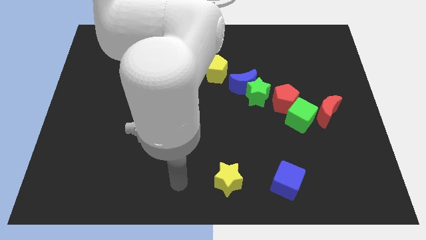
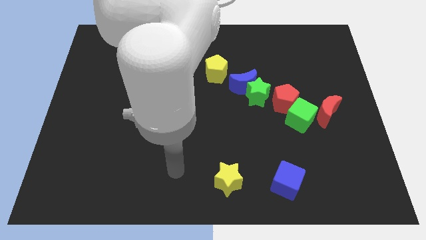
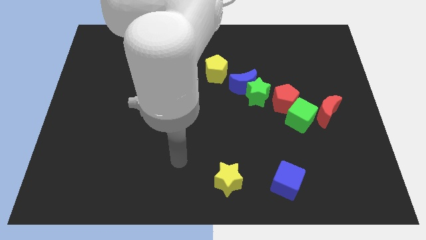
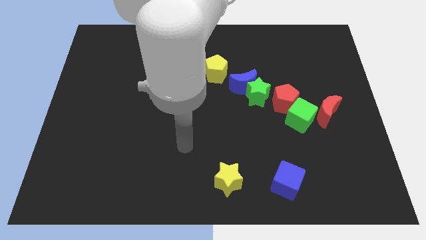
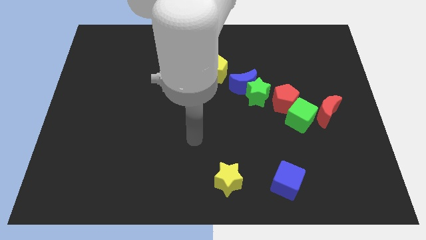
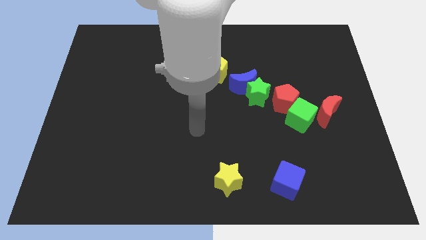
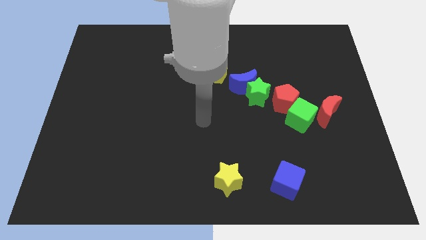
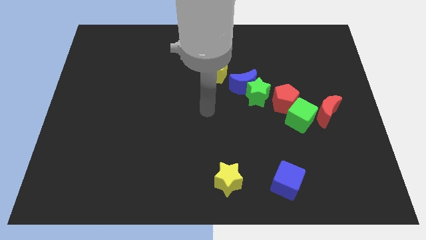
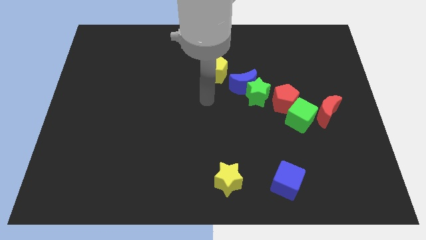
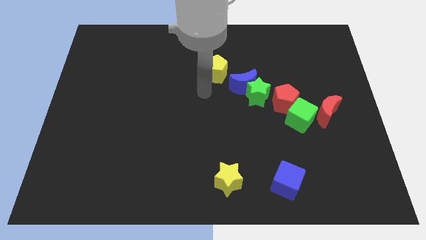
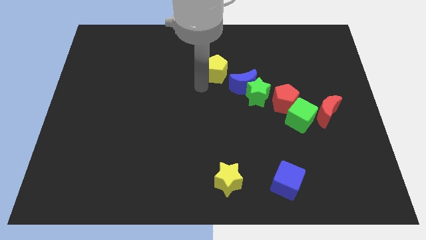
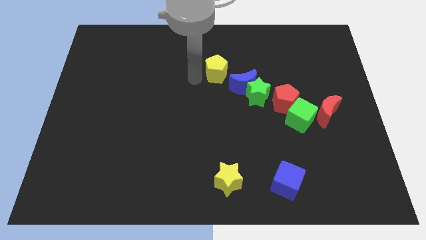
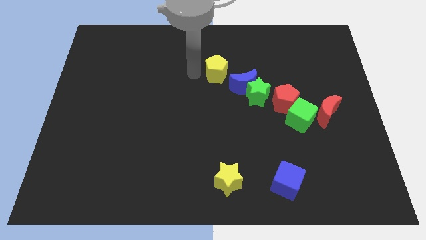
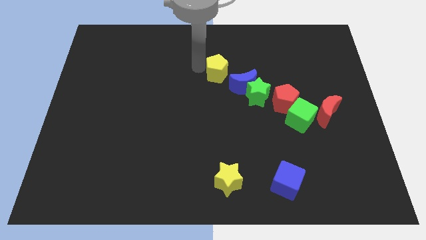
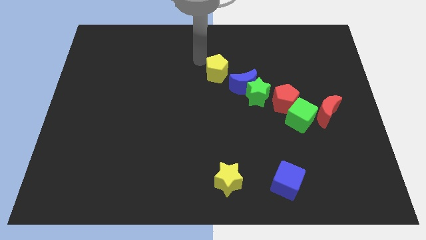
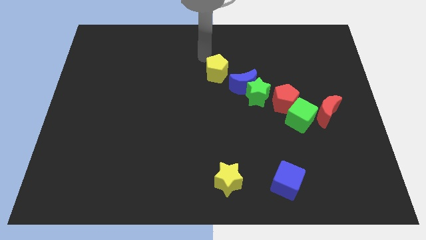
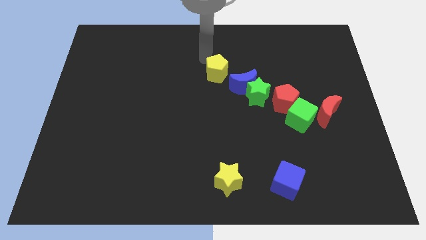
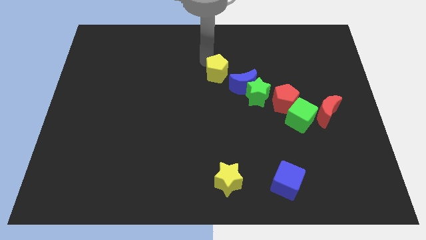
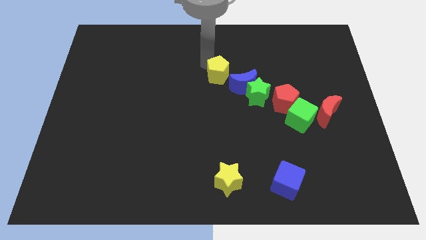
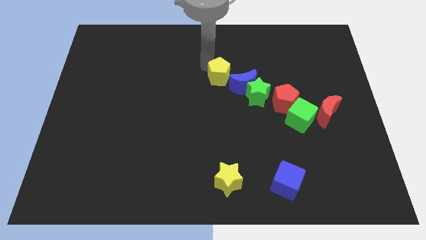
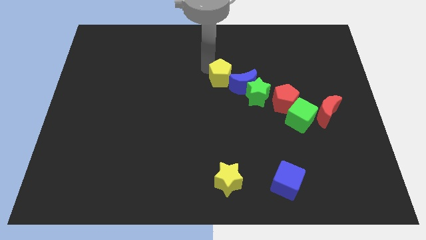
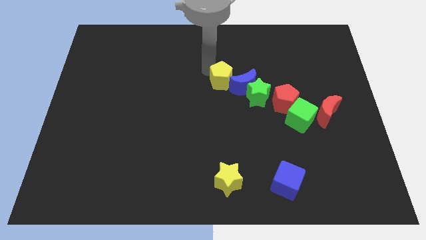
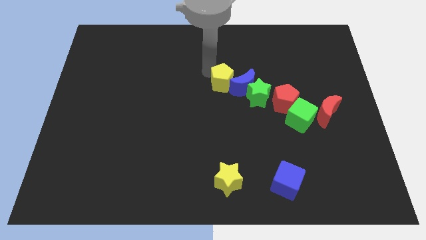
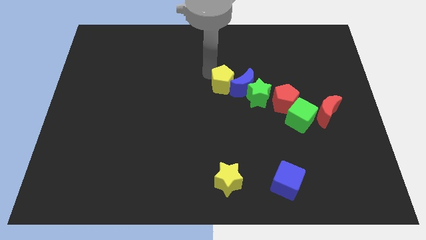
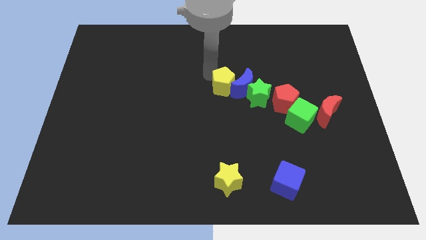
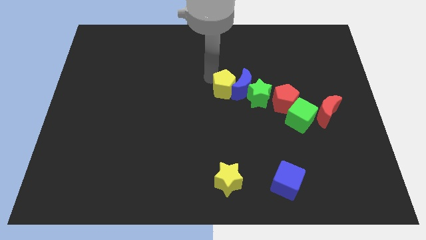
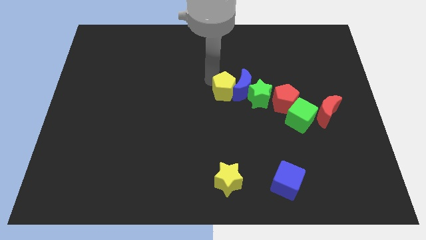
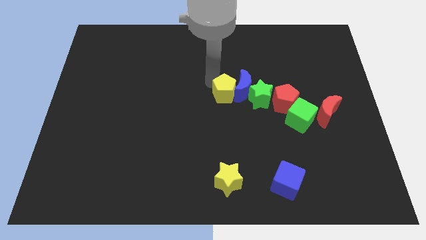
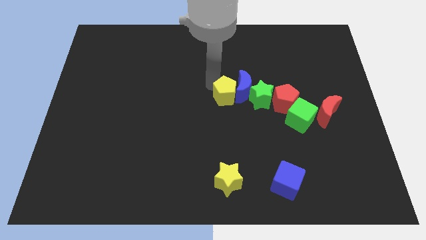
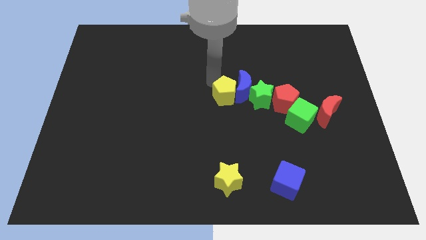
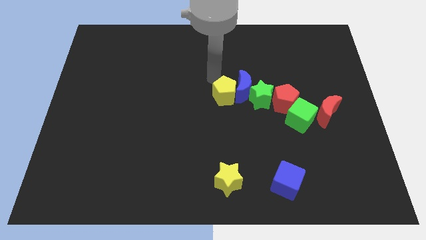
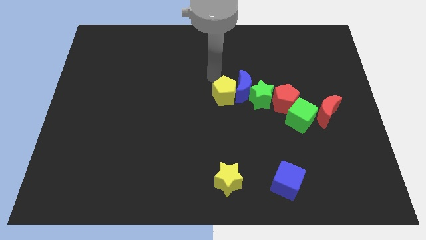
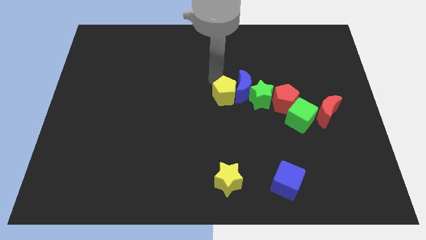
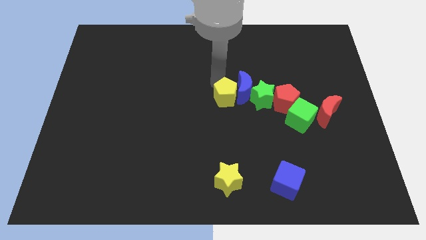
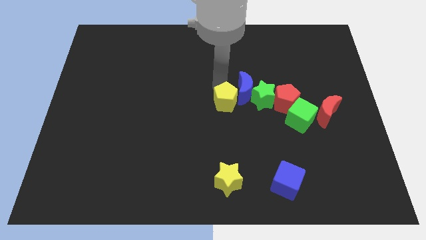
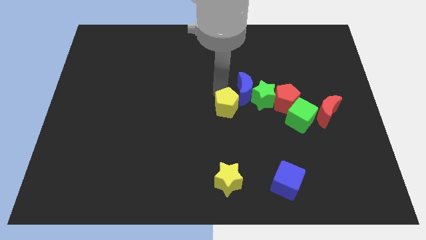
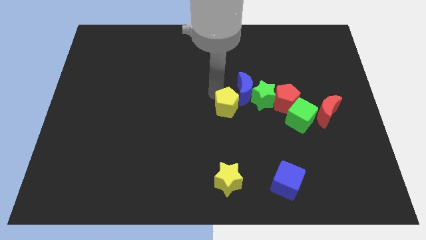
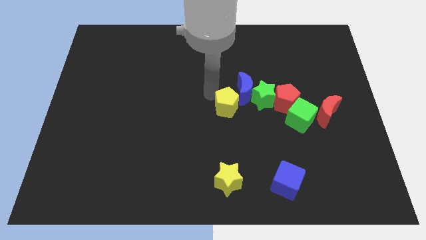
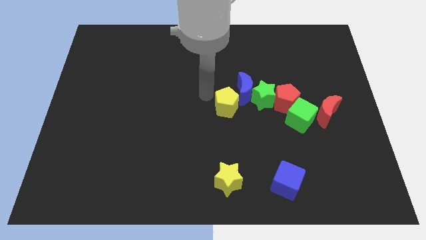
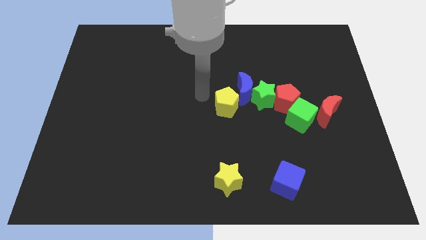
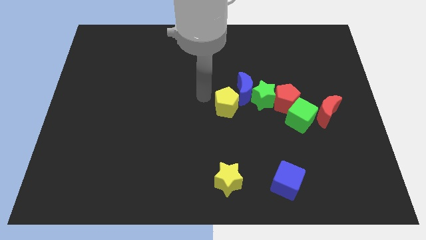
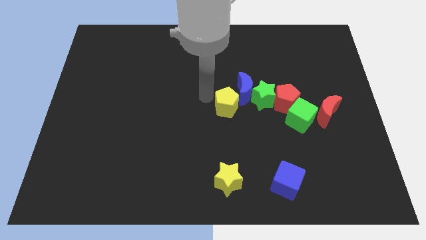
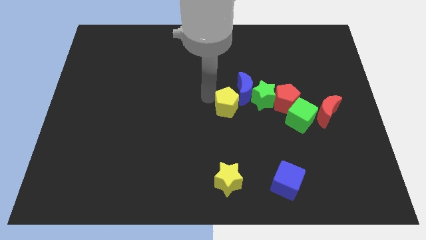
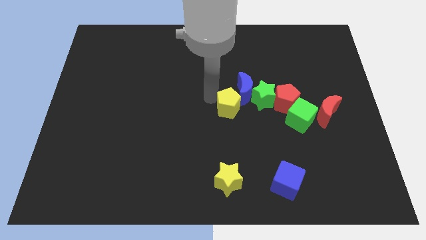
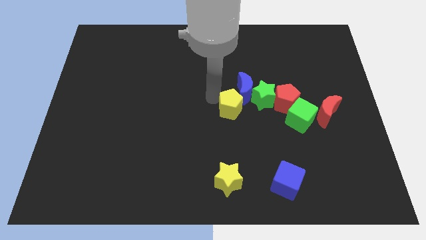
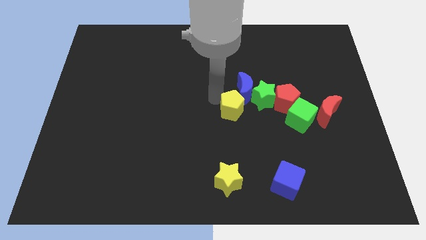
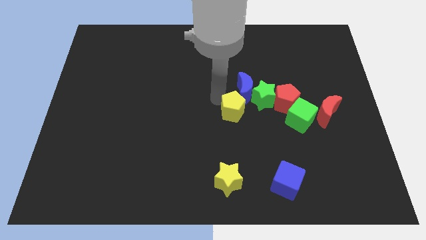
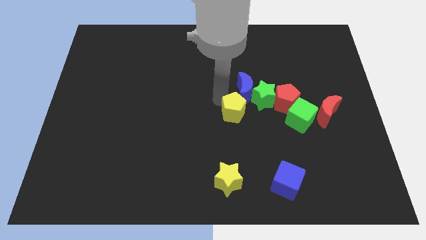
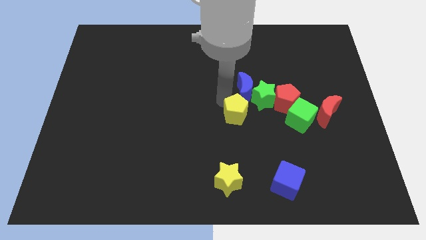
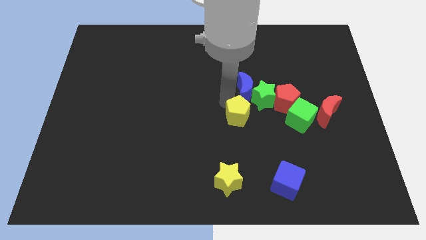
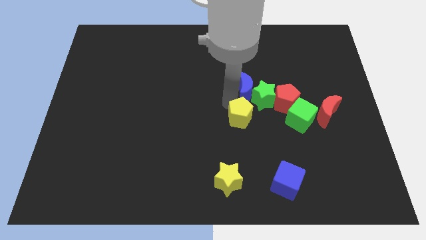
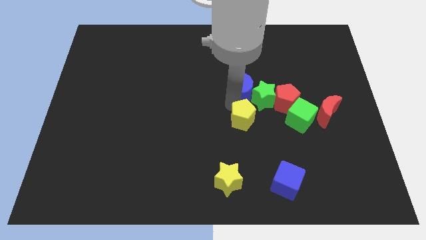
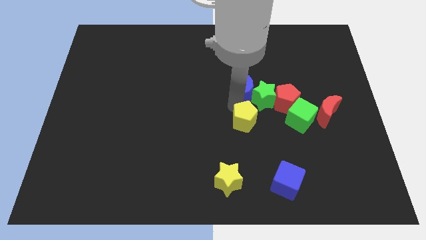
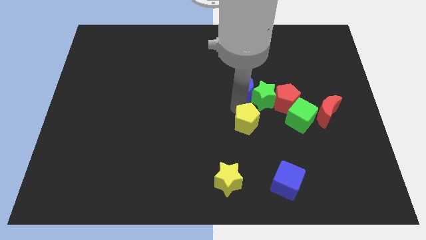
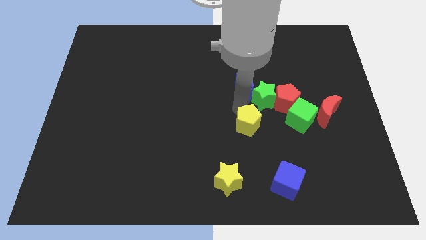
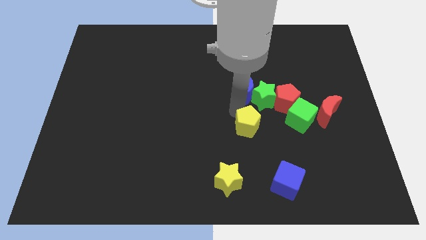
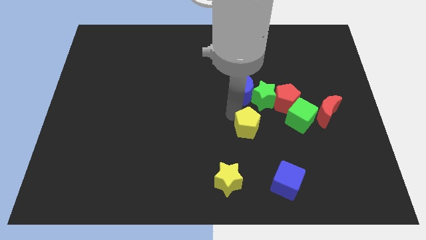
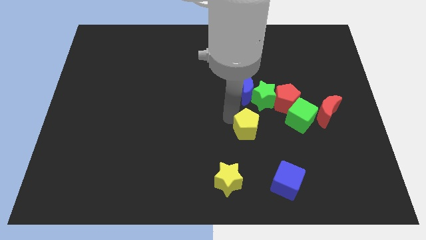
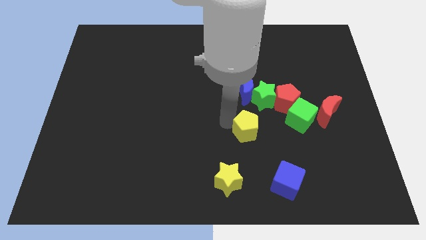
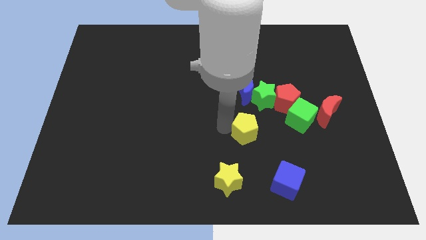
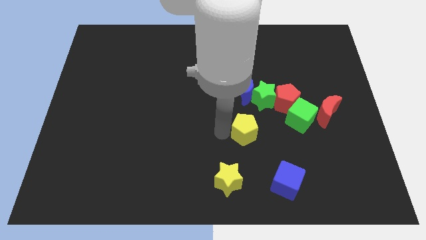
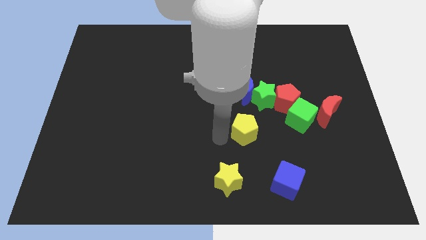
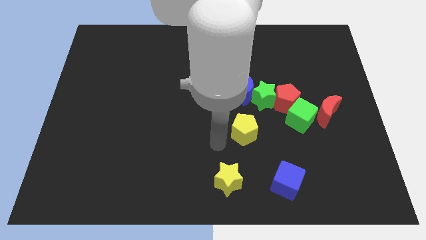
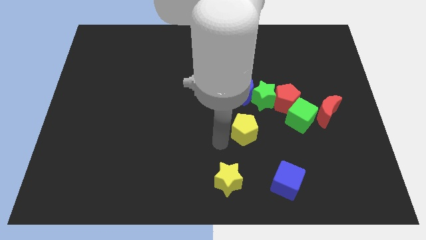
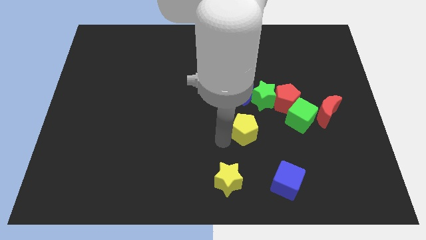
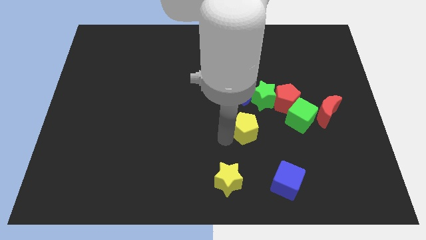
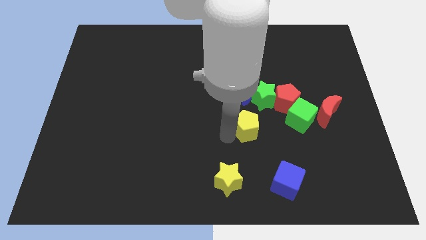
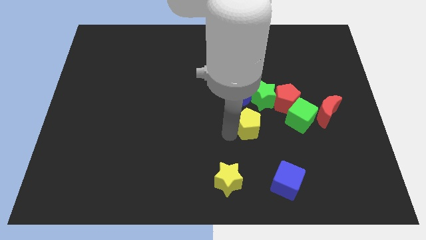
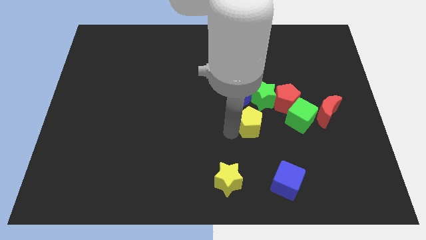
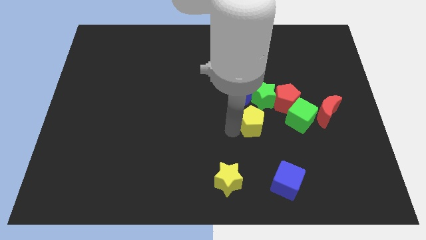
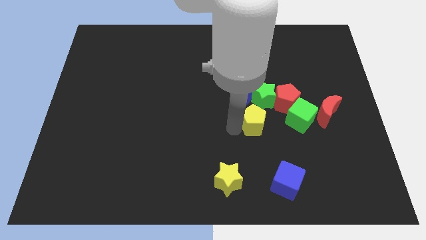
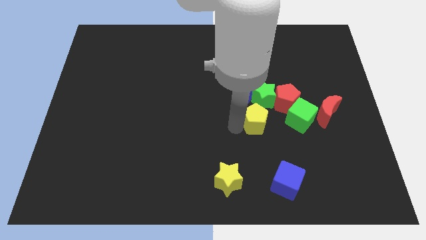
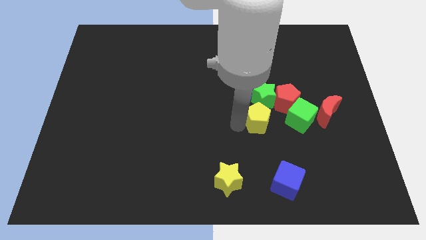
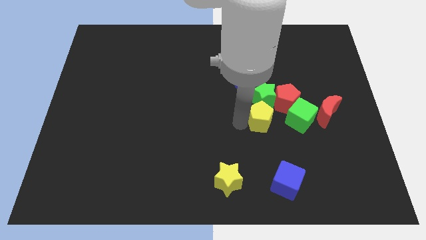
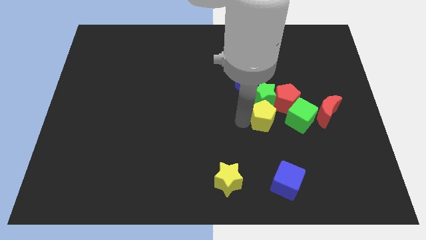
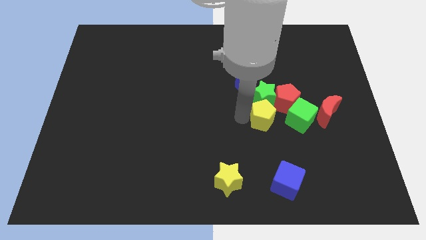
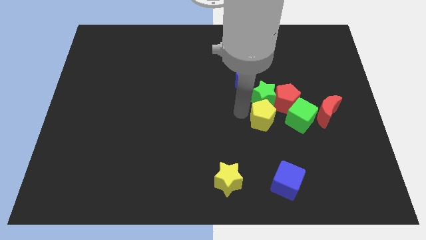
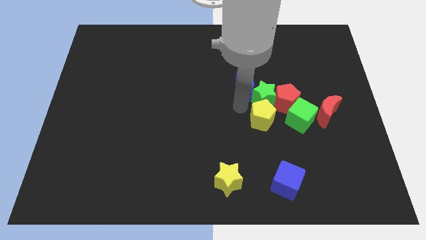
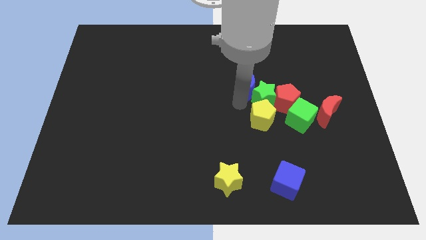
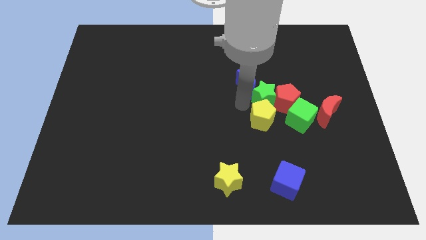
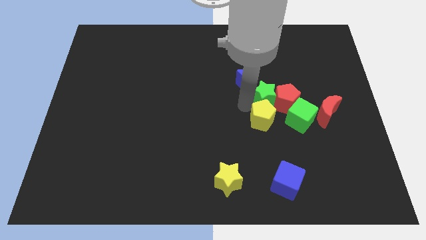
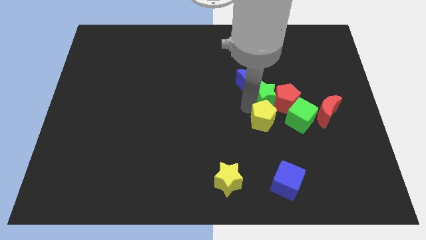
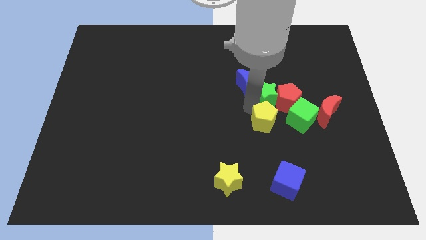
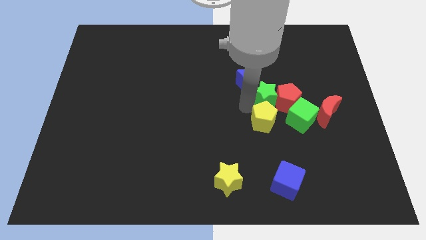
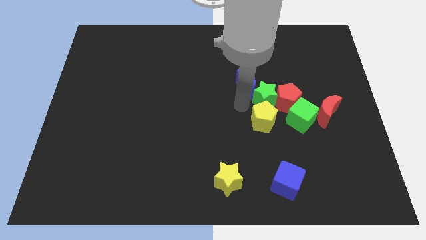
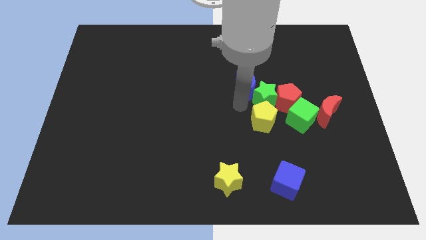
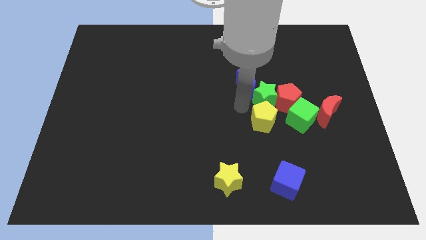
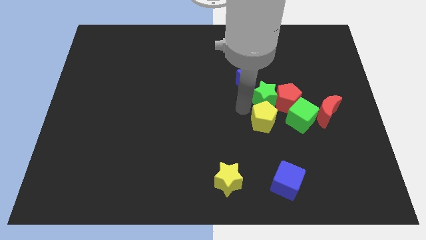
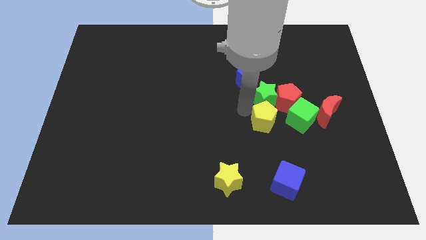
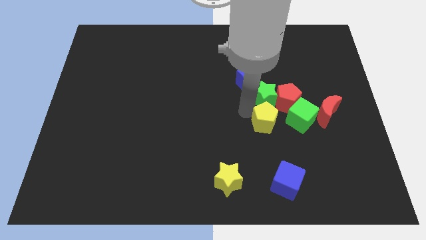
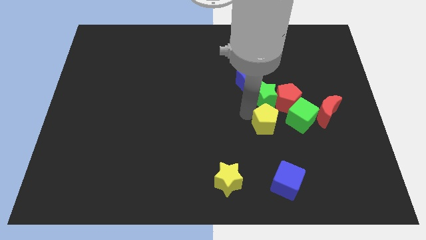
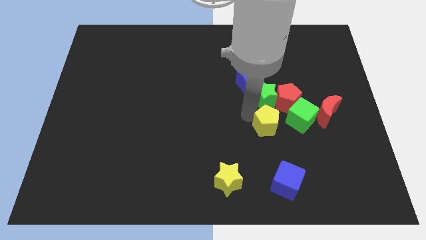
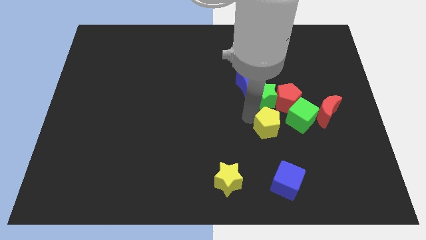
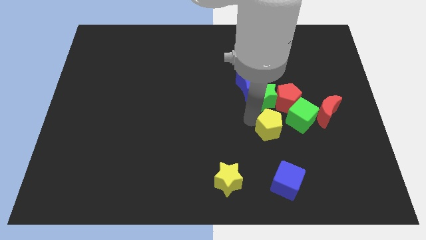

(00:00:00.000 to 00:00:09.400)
slide the yellow pentagon diagonally downwards and to the right
